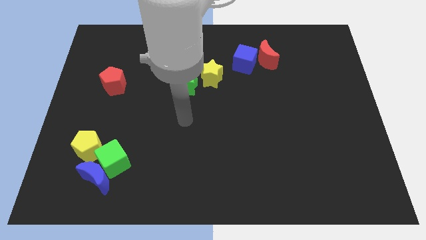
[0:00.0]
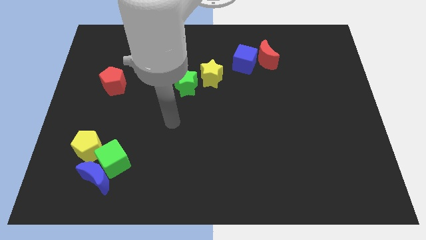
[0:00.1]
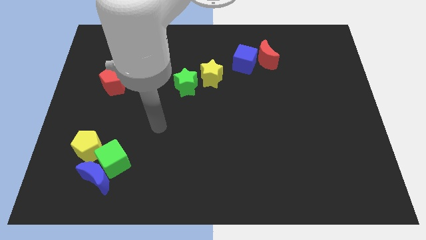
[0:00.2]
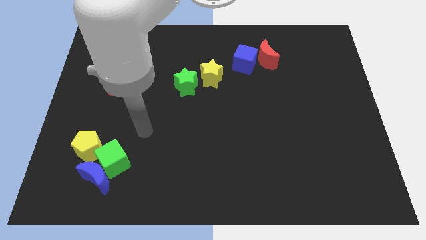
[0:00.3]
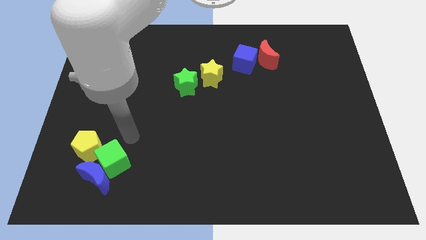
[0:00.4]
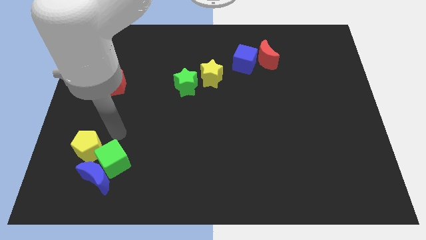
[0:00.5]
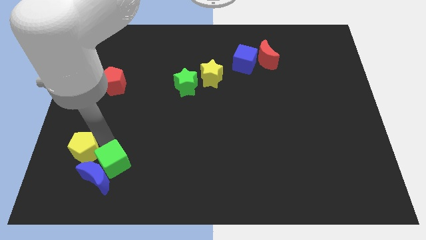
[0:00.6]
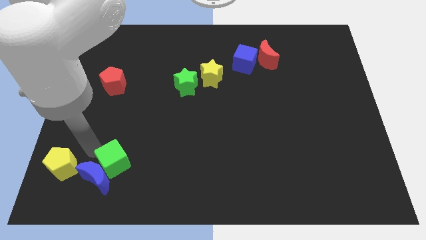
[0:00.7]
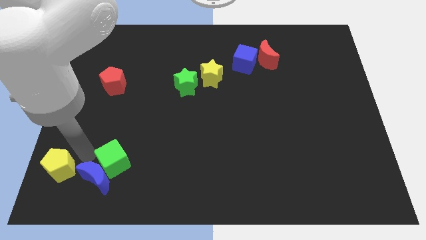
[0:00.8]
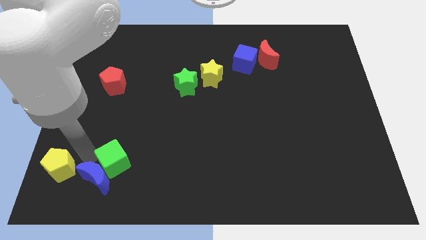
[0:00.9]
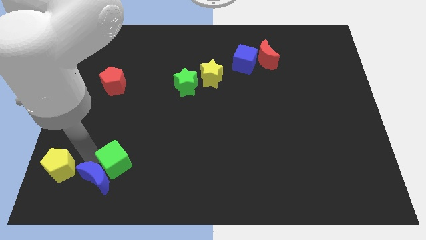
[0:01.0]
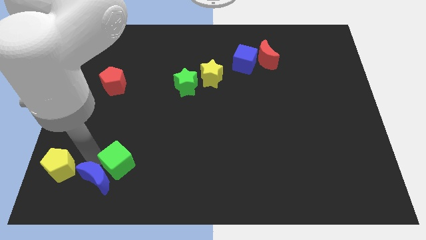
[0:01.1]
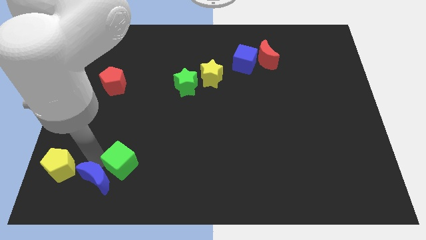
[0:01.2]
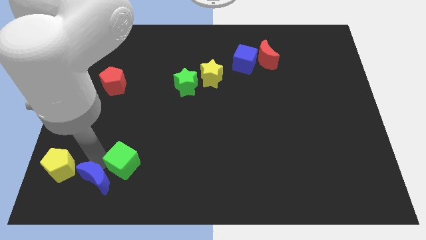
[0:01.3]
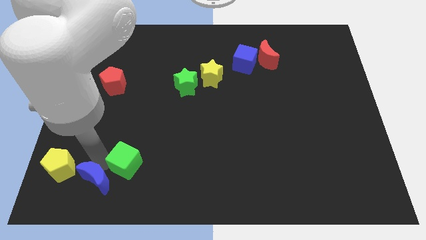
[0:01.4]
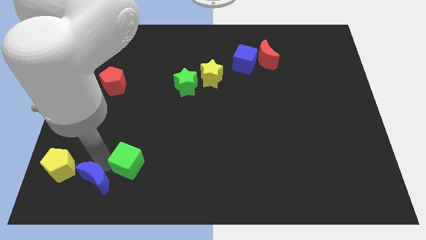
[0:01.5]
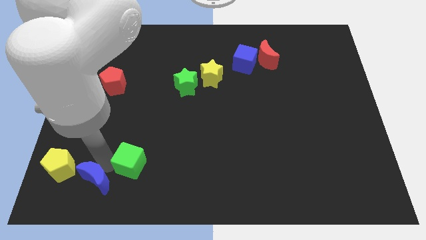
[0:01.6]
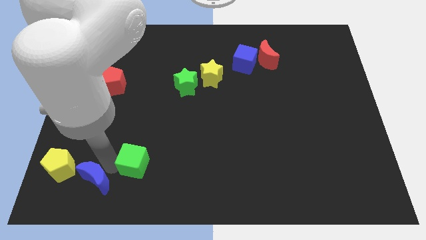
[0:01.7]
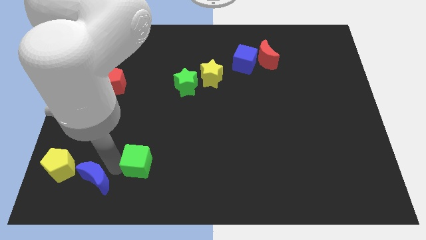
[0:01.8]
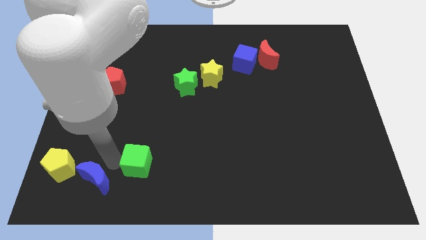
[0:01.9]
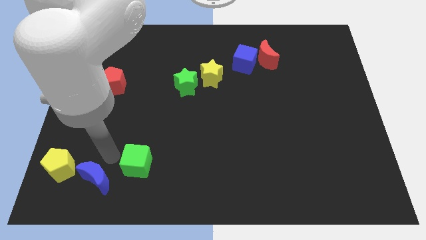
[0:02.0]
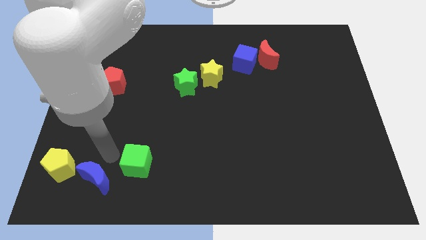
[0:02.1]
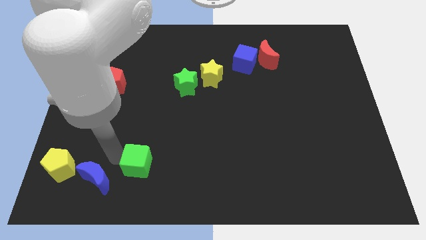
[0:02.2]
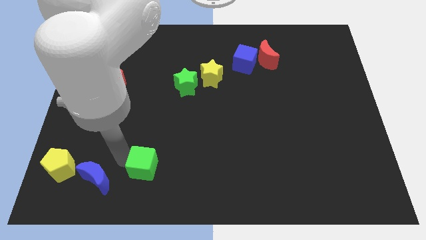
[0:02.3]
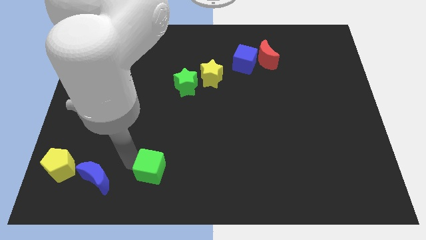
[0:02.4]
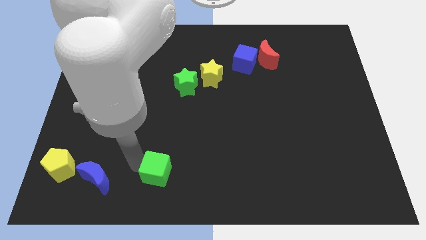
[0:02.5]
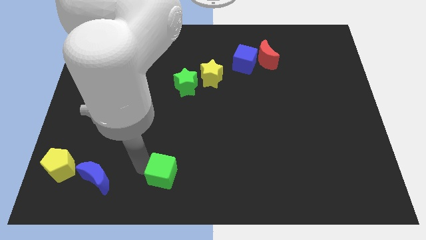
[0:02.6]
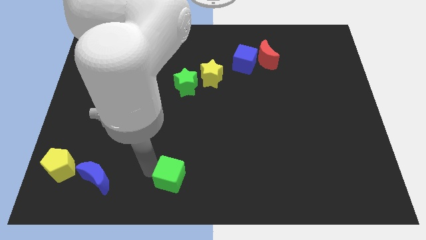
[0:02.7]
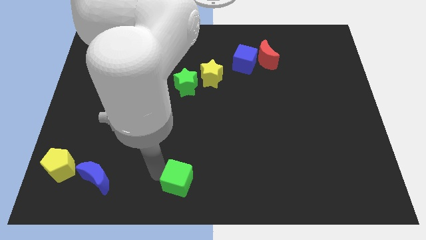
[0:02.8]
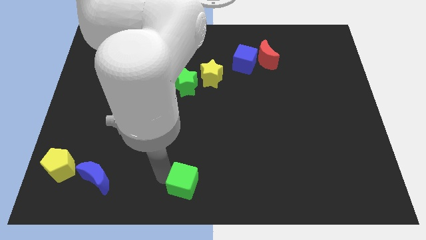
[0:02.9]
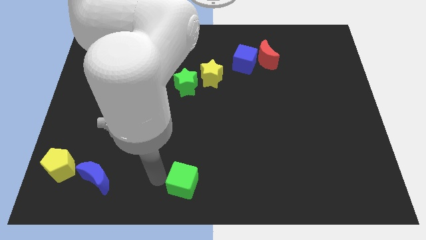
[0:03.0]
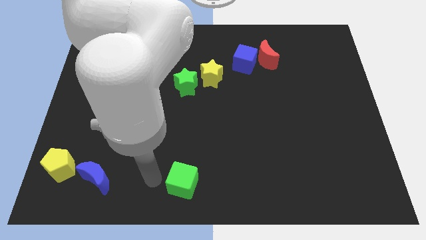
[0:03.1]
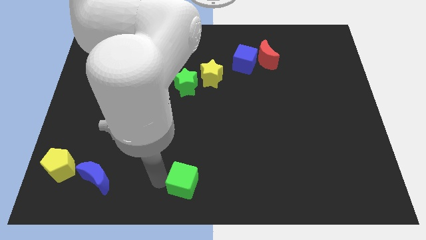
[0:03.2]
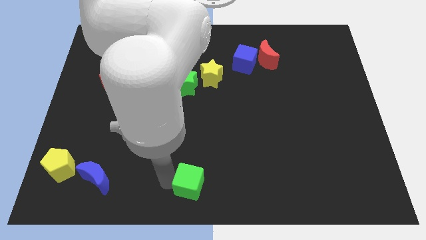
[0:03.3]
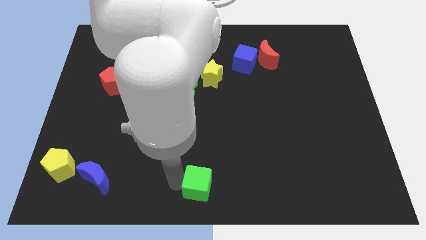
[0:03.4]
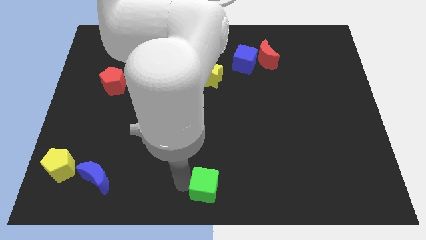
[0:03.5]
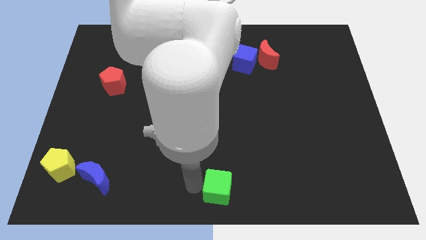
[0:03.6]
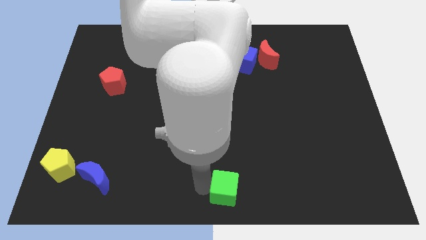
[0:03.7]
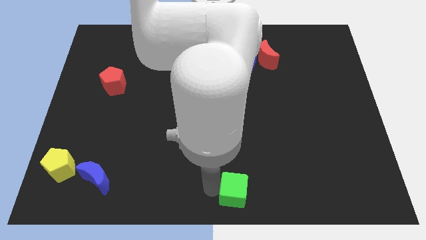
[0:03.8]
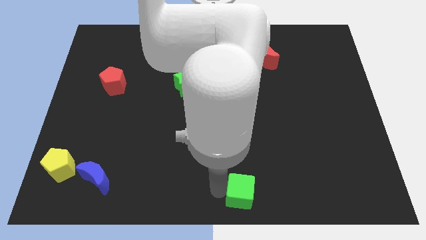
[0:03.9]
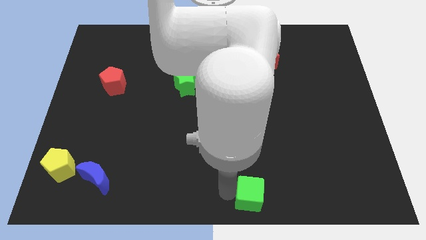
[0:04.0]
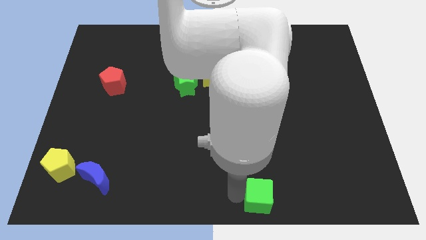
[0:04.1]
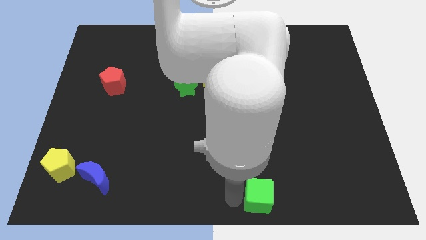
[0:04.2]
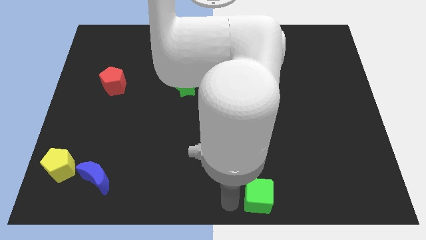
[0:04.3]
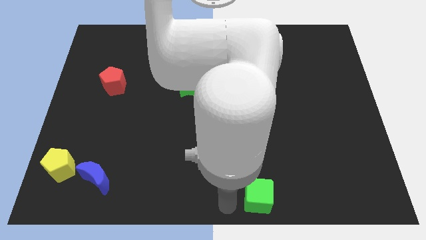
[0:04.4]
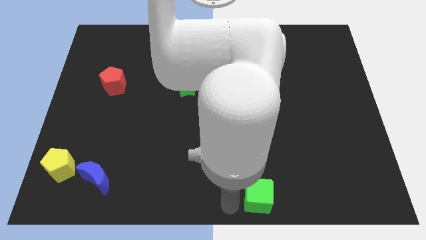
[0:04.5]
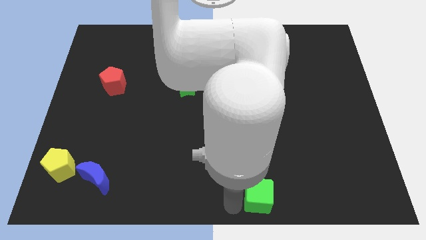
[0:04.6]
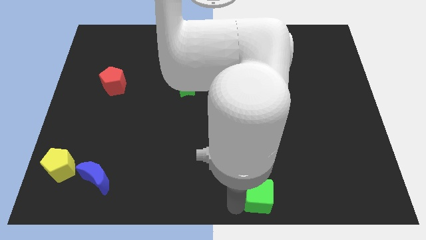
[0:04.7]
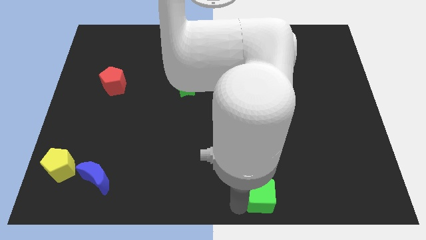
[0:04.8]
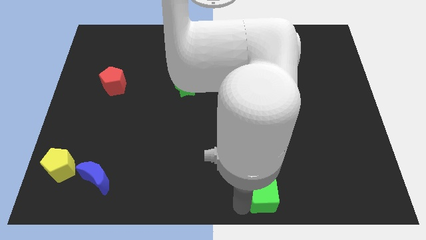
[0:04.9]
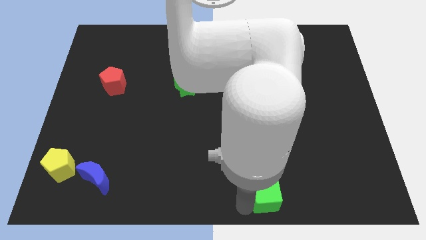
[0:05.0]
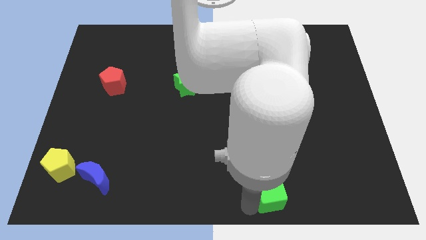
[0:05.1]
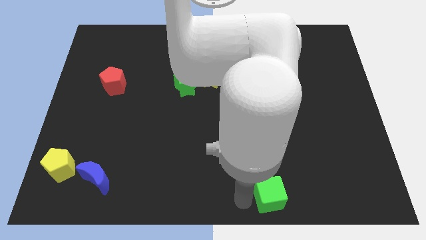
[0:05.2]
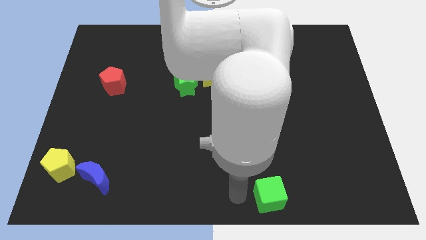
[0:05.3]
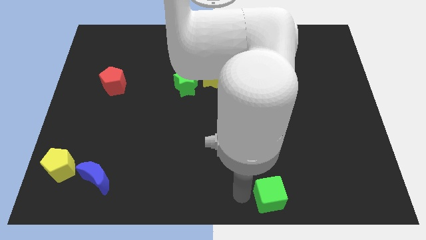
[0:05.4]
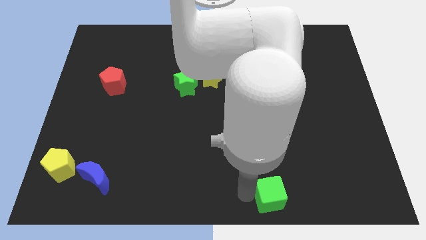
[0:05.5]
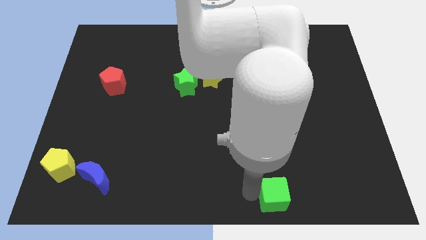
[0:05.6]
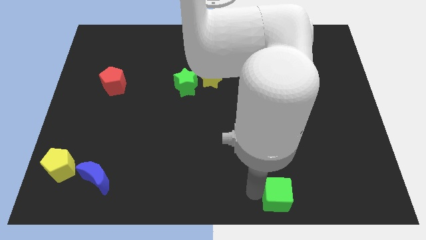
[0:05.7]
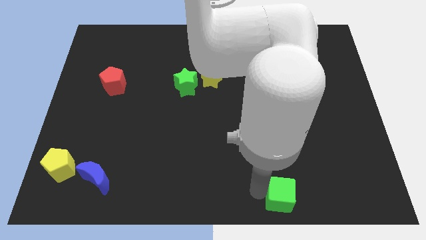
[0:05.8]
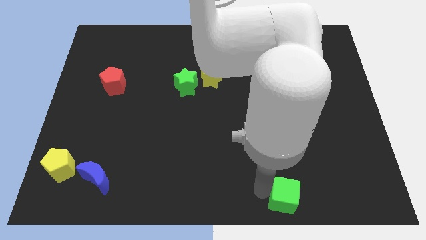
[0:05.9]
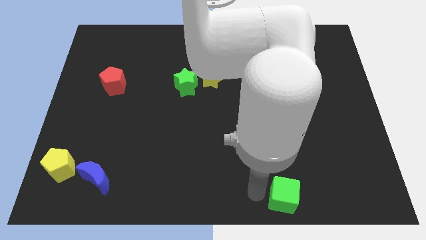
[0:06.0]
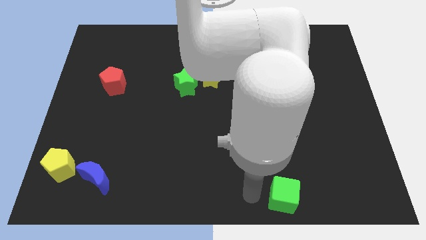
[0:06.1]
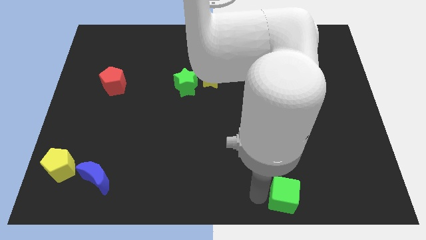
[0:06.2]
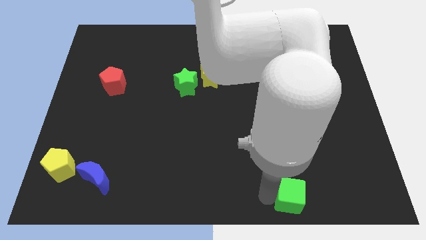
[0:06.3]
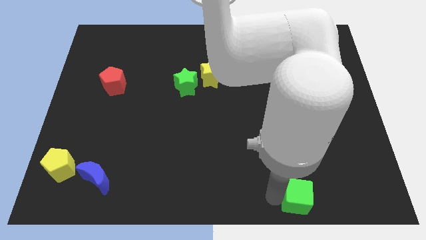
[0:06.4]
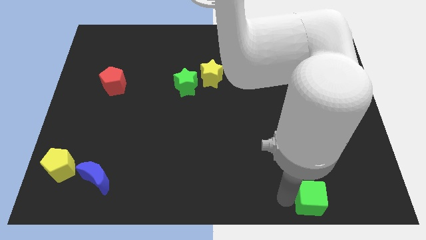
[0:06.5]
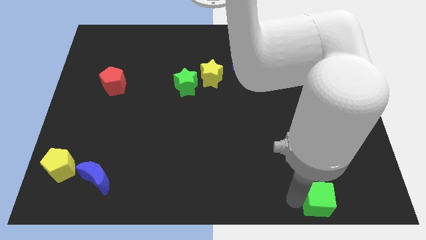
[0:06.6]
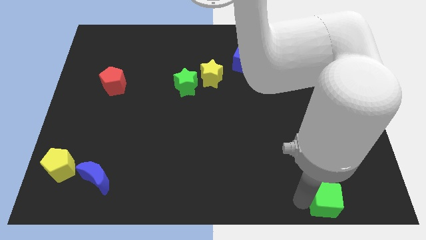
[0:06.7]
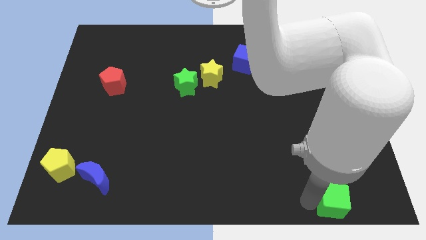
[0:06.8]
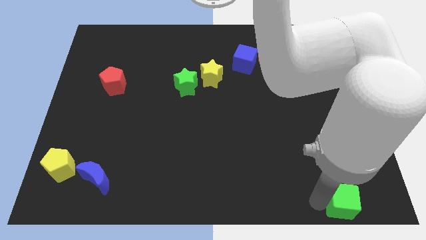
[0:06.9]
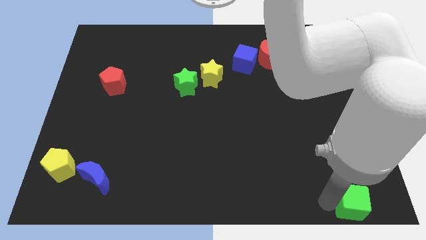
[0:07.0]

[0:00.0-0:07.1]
push the green cube to the lower right corner
